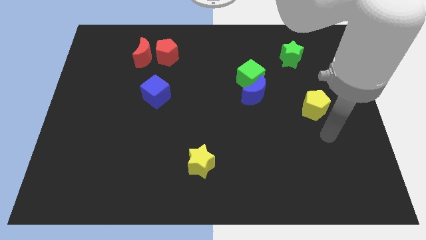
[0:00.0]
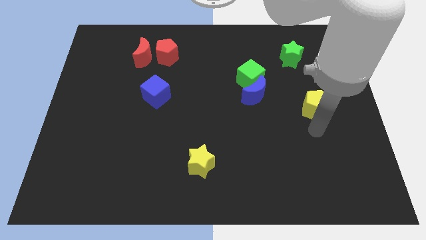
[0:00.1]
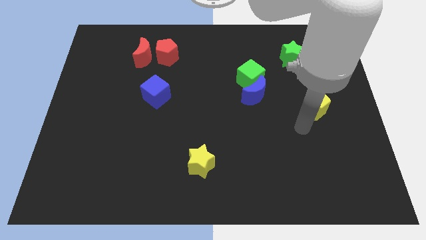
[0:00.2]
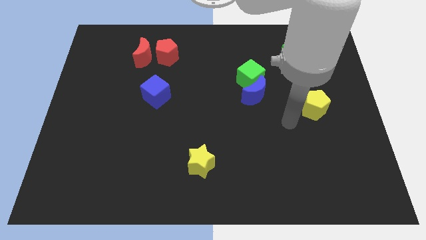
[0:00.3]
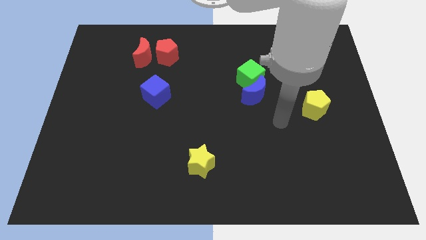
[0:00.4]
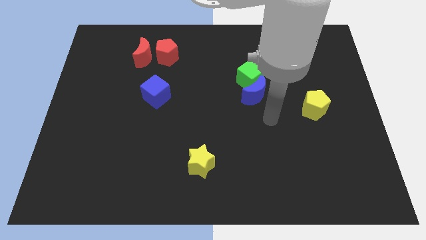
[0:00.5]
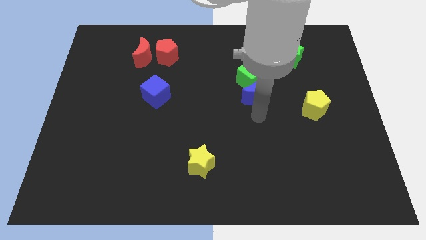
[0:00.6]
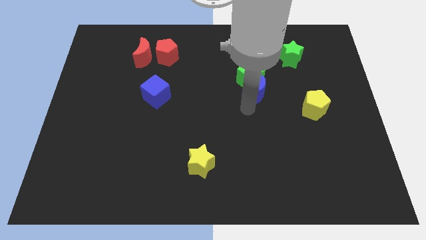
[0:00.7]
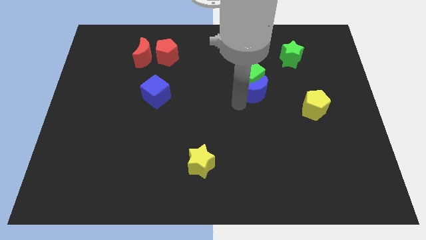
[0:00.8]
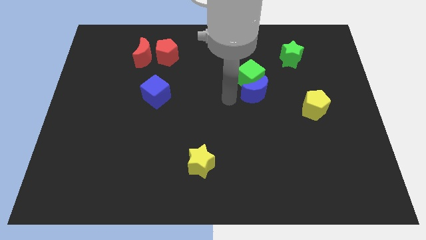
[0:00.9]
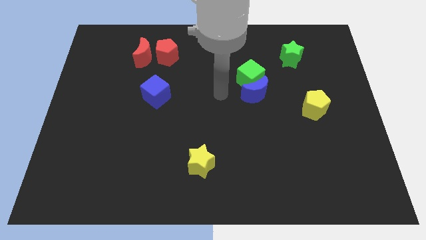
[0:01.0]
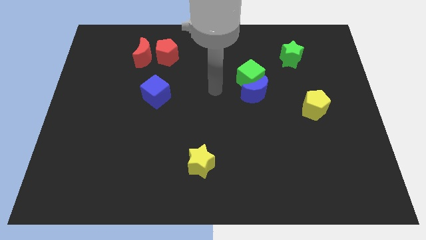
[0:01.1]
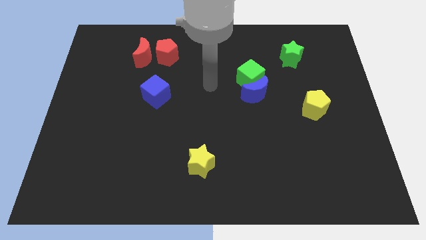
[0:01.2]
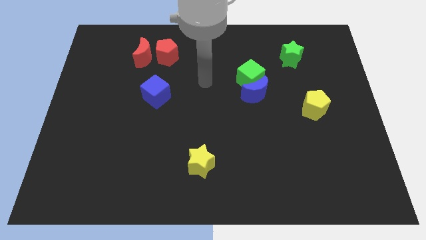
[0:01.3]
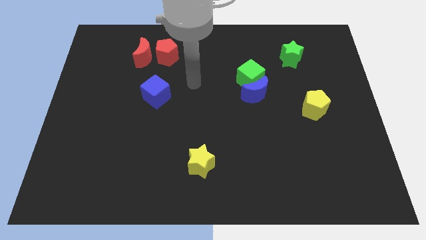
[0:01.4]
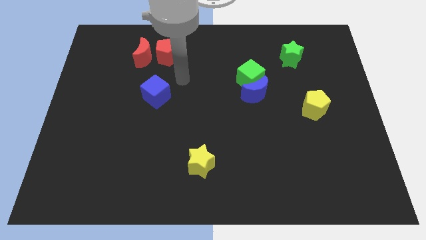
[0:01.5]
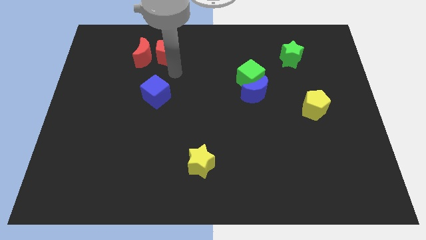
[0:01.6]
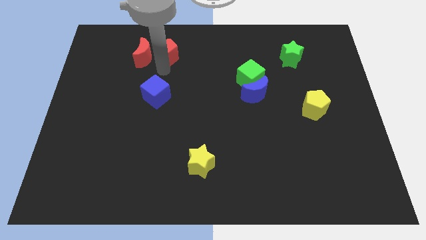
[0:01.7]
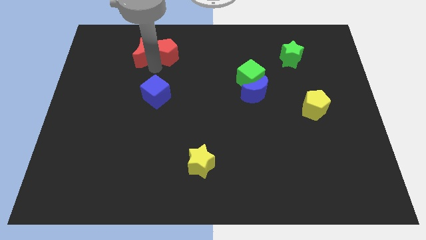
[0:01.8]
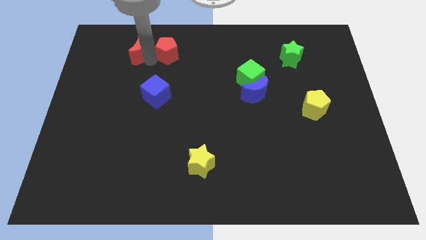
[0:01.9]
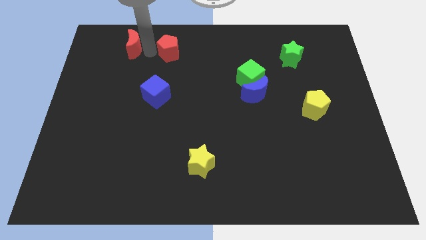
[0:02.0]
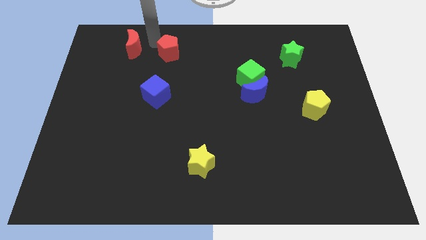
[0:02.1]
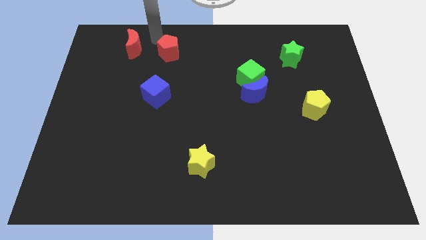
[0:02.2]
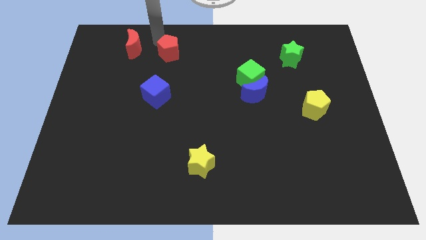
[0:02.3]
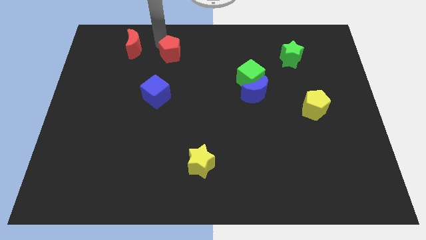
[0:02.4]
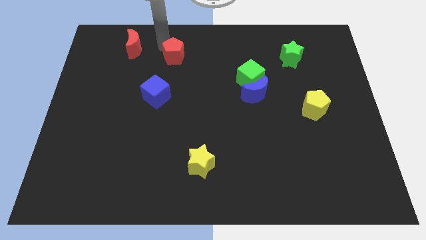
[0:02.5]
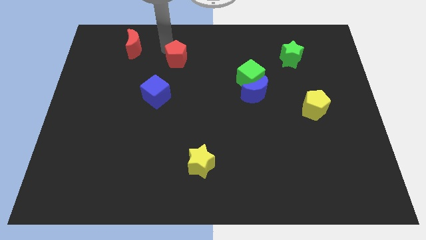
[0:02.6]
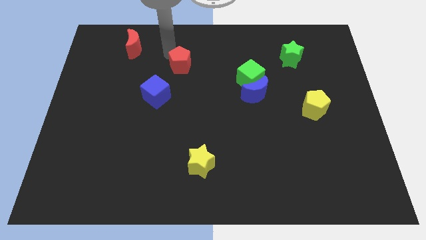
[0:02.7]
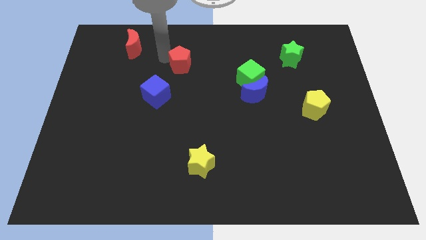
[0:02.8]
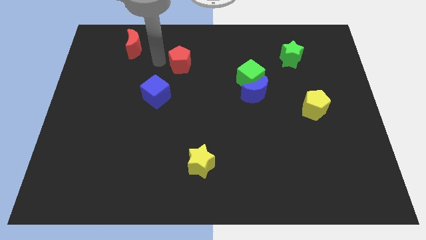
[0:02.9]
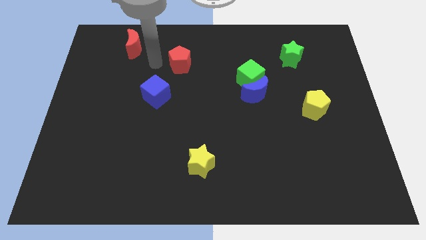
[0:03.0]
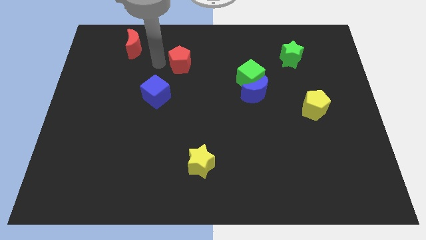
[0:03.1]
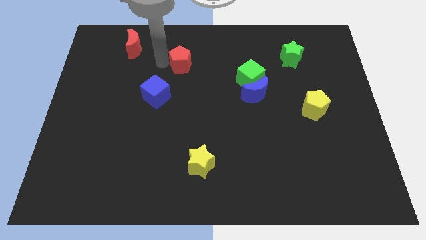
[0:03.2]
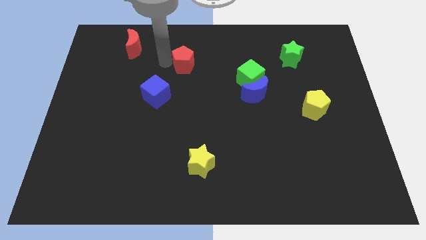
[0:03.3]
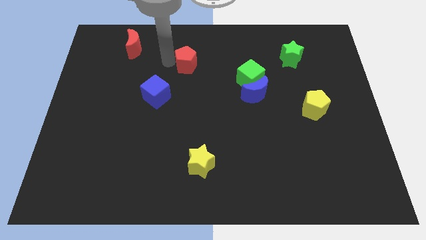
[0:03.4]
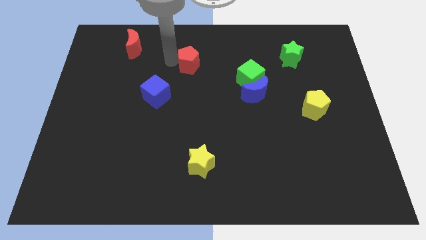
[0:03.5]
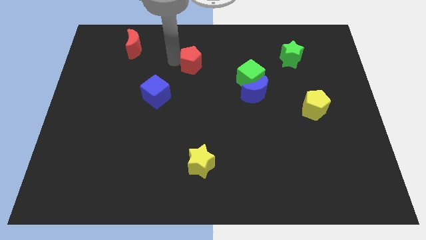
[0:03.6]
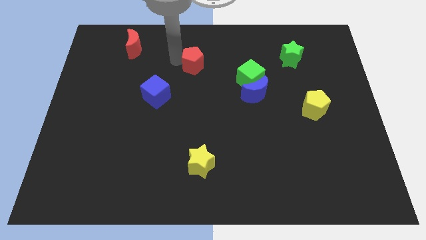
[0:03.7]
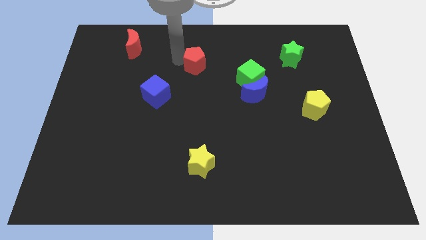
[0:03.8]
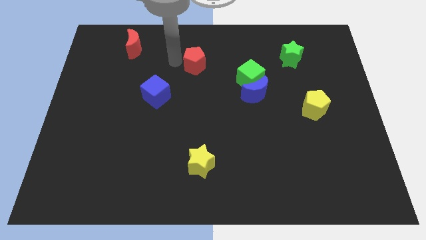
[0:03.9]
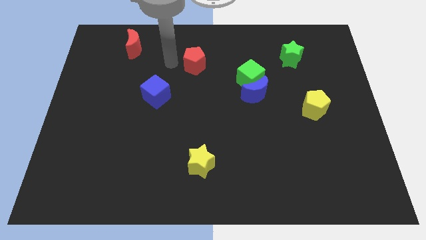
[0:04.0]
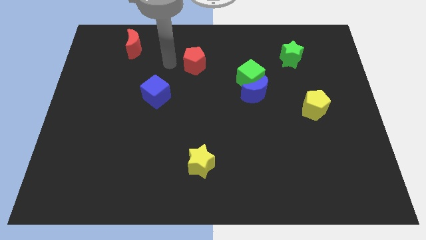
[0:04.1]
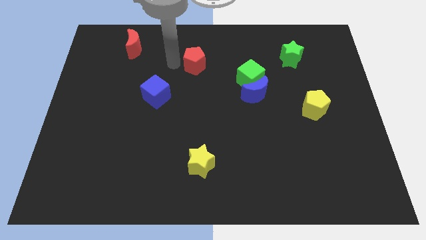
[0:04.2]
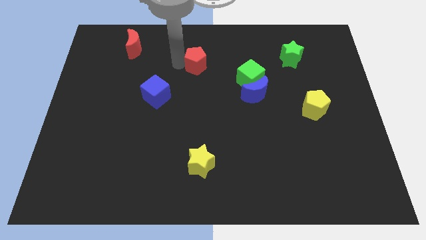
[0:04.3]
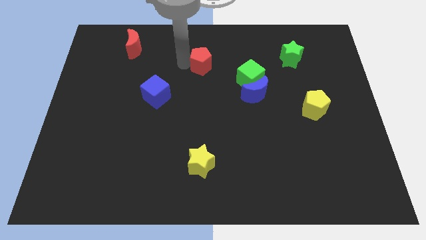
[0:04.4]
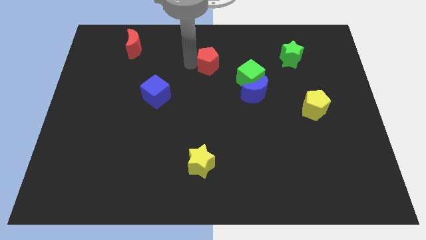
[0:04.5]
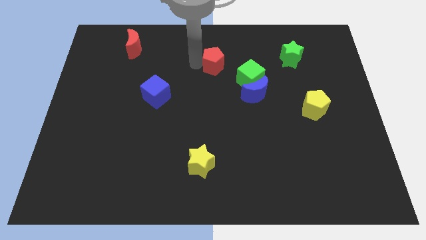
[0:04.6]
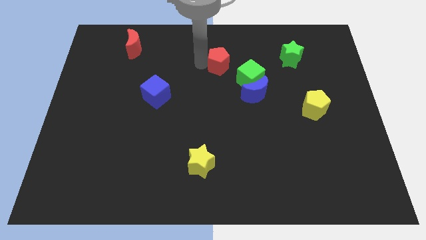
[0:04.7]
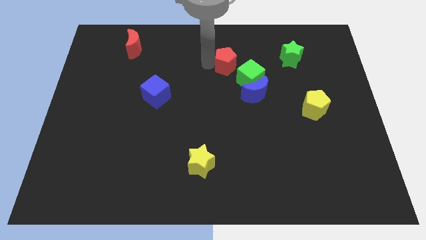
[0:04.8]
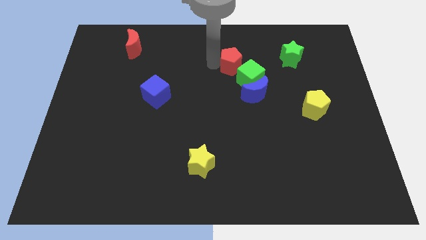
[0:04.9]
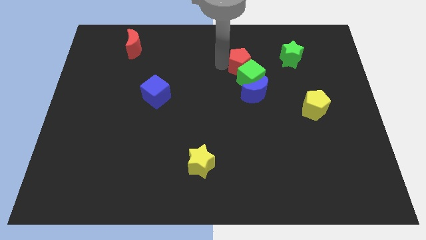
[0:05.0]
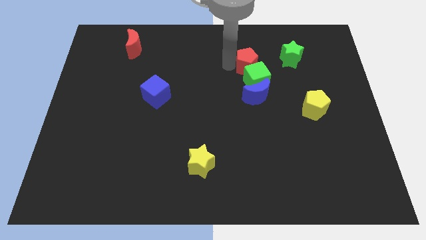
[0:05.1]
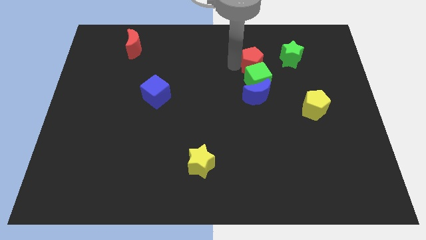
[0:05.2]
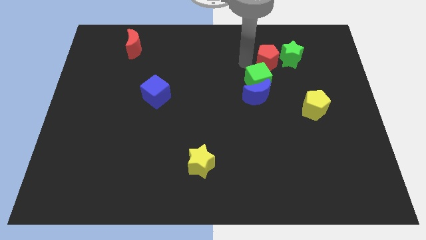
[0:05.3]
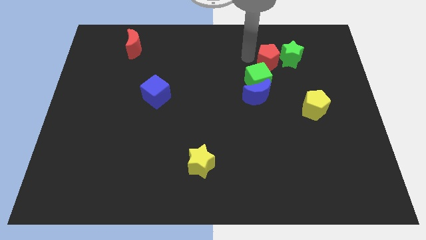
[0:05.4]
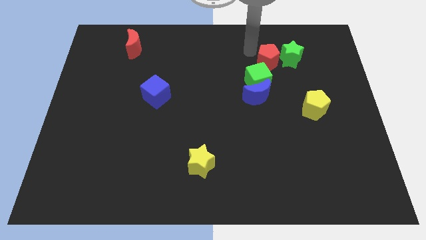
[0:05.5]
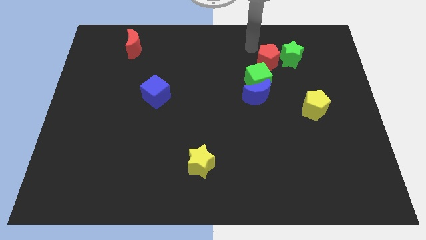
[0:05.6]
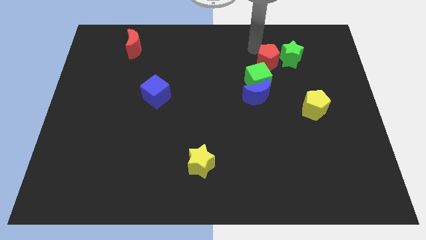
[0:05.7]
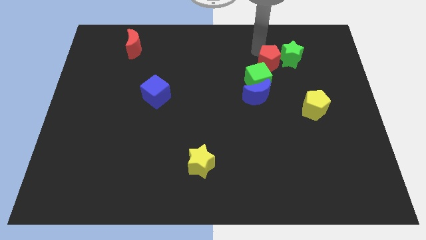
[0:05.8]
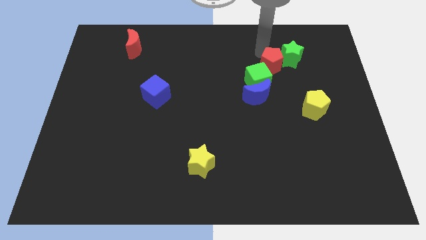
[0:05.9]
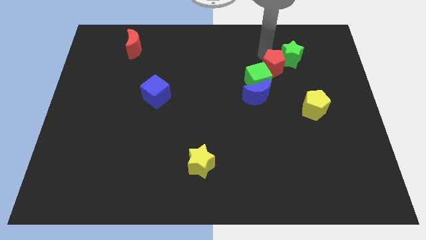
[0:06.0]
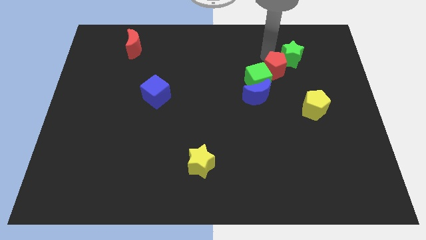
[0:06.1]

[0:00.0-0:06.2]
push the red pentagon to the bottom side of the green star
